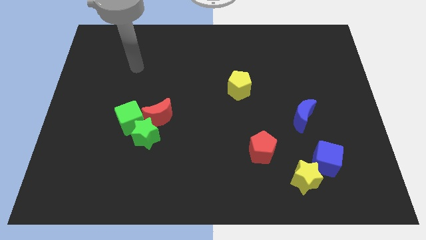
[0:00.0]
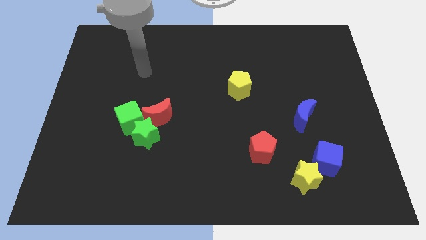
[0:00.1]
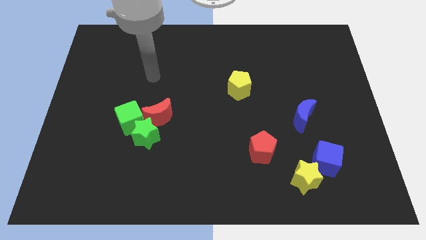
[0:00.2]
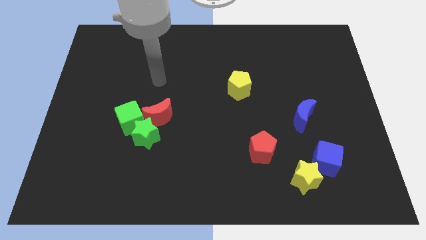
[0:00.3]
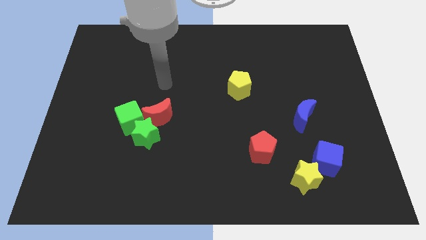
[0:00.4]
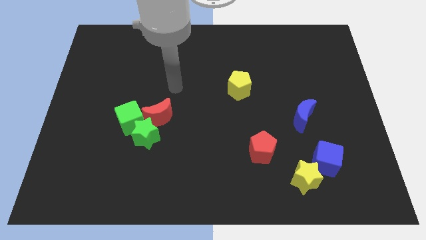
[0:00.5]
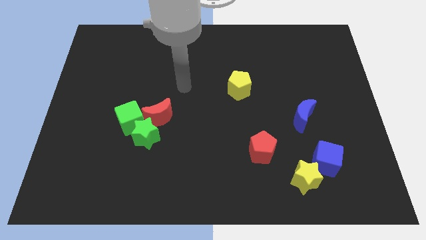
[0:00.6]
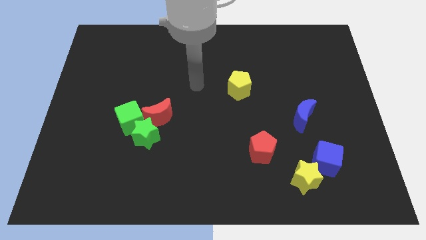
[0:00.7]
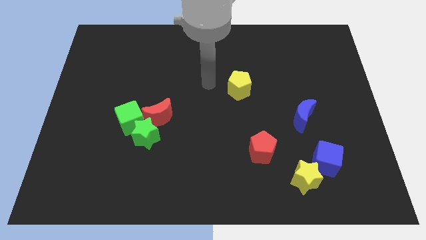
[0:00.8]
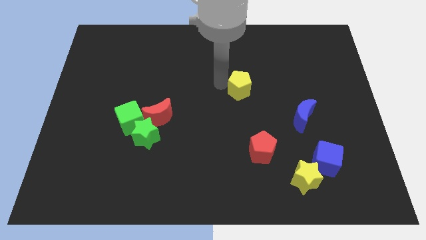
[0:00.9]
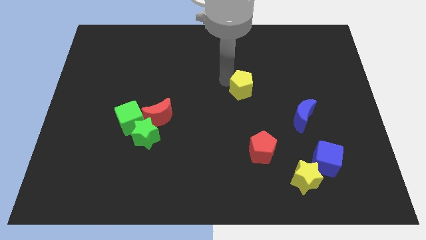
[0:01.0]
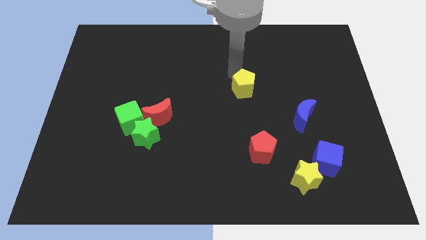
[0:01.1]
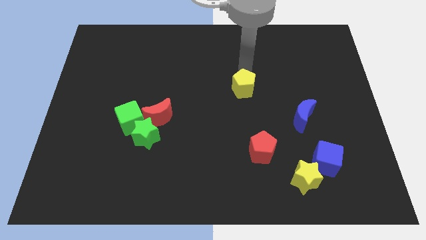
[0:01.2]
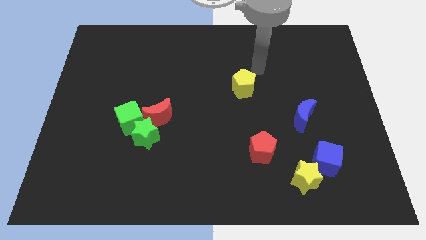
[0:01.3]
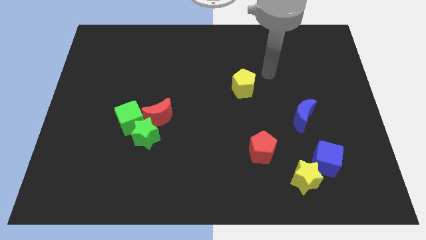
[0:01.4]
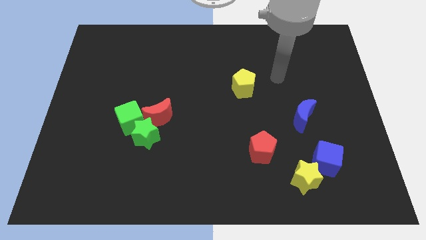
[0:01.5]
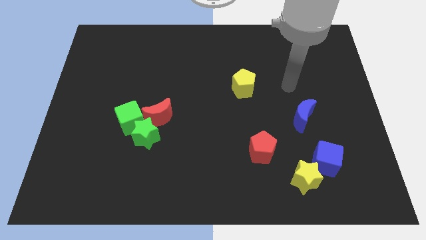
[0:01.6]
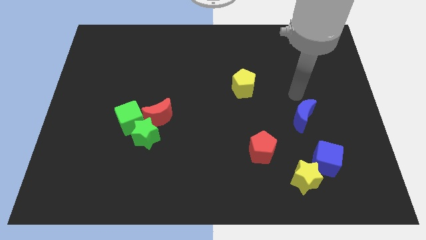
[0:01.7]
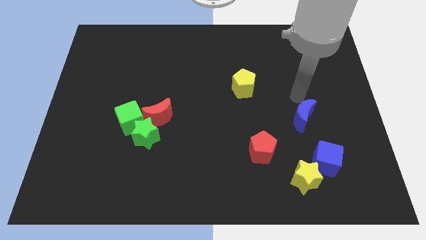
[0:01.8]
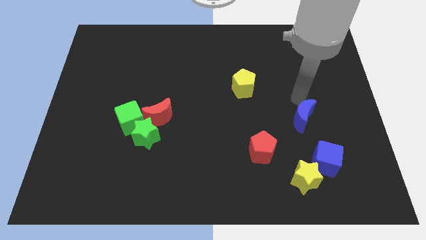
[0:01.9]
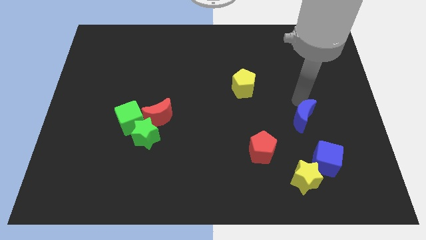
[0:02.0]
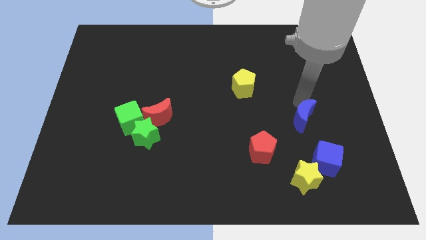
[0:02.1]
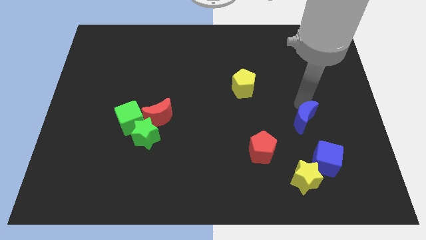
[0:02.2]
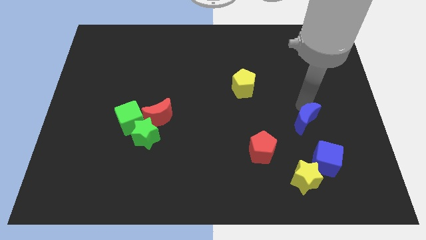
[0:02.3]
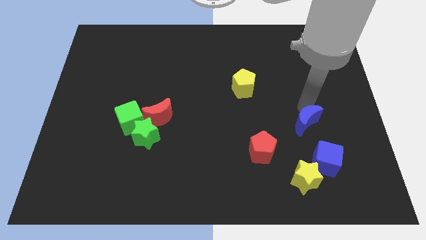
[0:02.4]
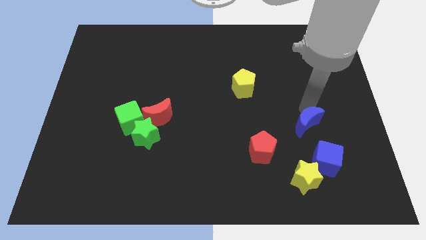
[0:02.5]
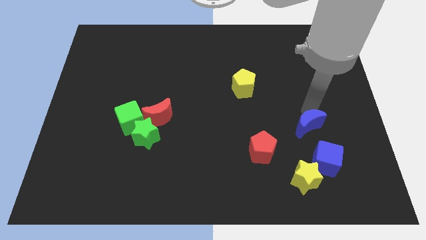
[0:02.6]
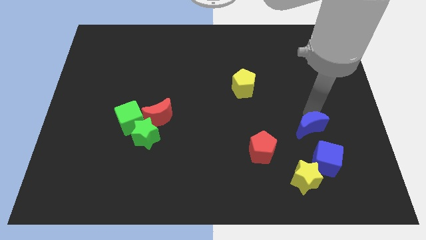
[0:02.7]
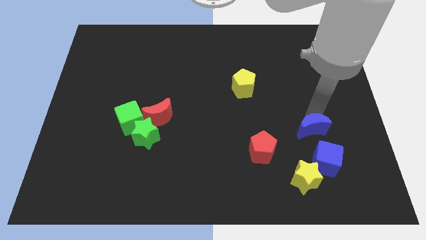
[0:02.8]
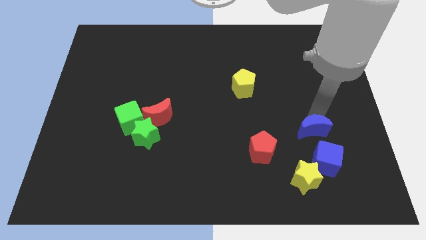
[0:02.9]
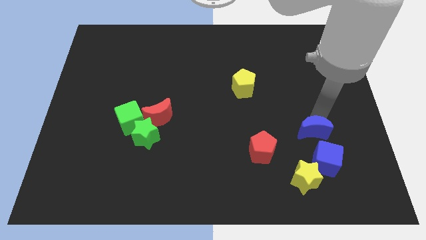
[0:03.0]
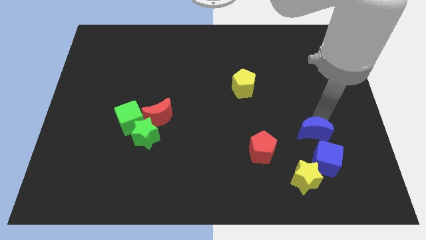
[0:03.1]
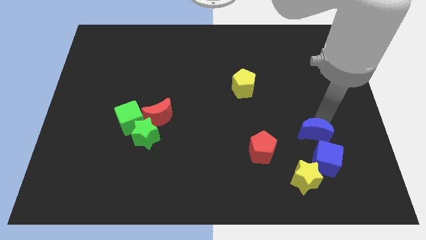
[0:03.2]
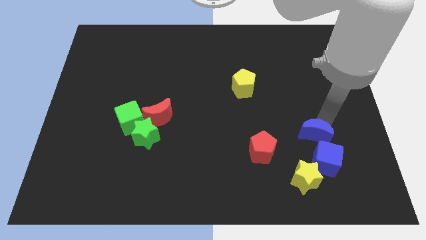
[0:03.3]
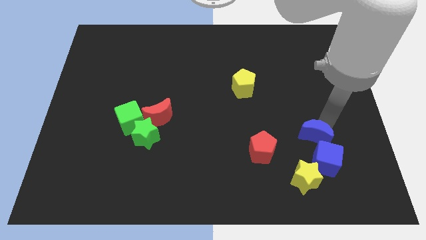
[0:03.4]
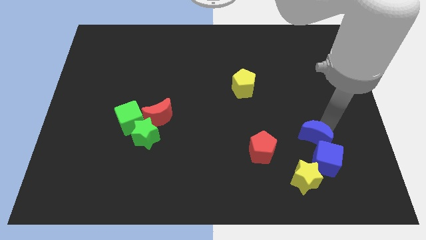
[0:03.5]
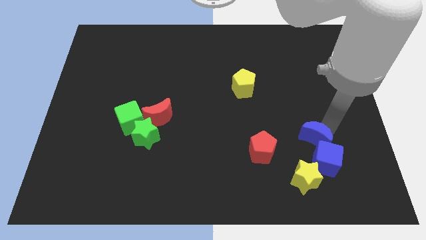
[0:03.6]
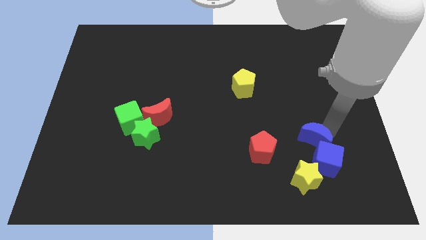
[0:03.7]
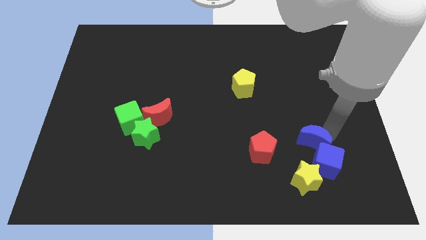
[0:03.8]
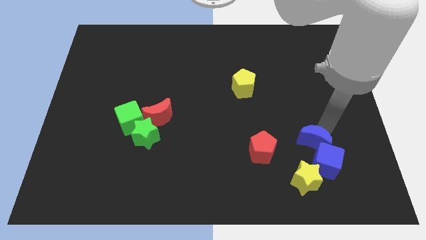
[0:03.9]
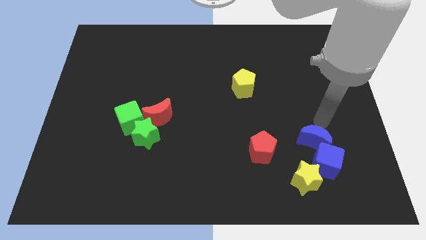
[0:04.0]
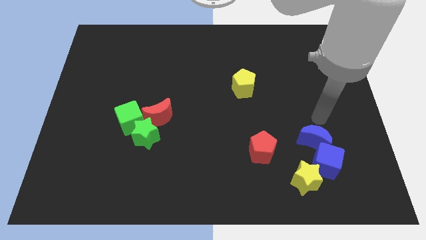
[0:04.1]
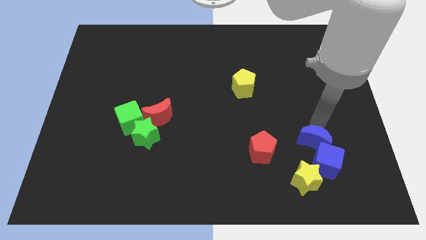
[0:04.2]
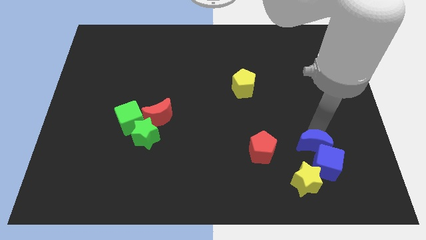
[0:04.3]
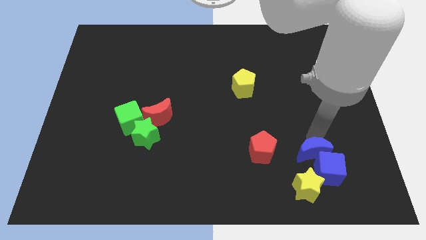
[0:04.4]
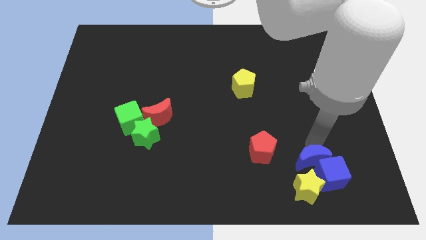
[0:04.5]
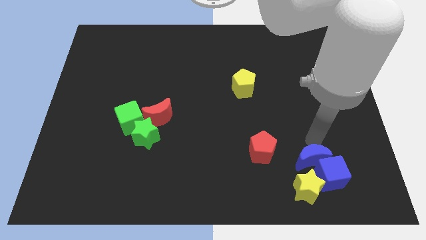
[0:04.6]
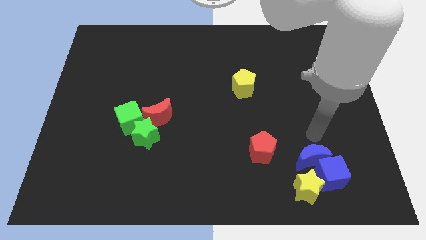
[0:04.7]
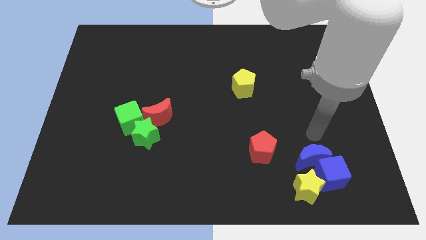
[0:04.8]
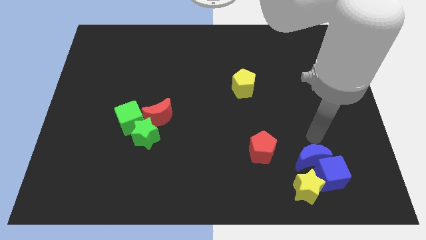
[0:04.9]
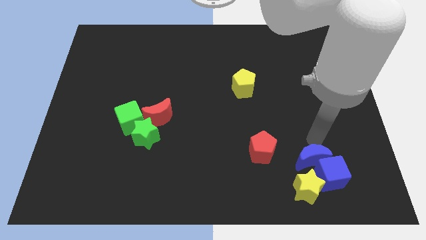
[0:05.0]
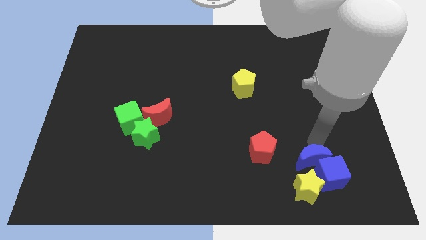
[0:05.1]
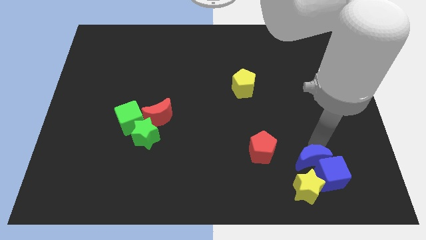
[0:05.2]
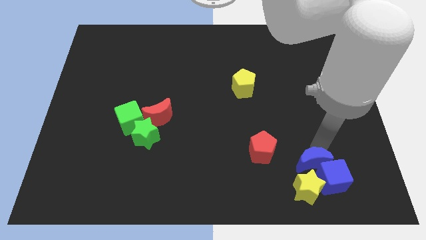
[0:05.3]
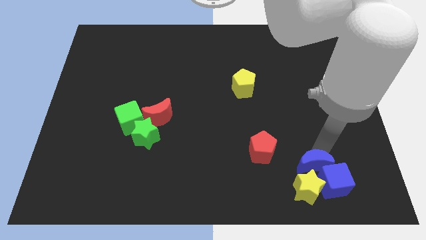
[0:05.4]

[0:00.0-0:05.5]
slide the blue moon towards the yellow star

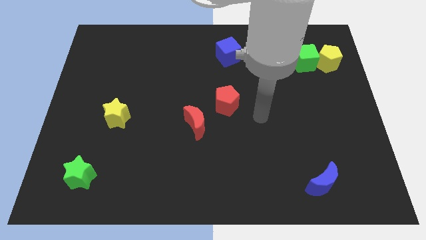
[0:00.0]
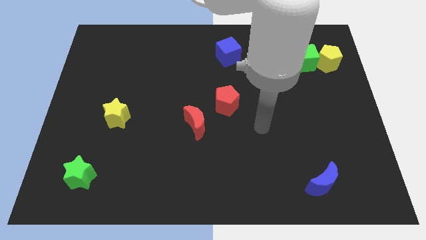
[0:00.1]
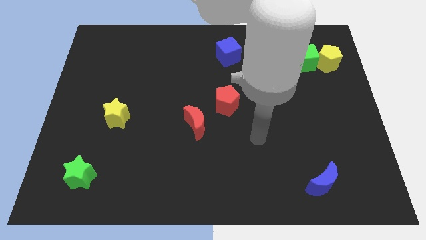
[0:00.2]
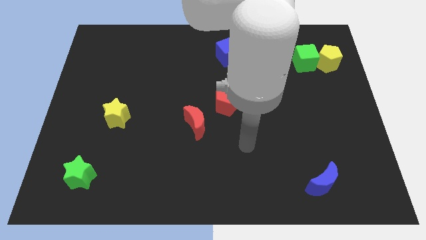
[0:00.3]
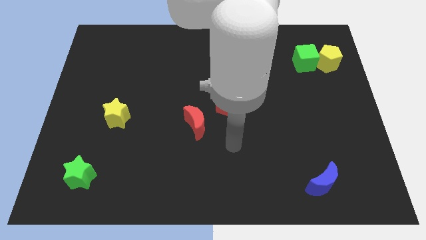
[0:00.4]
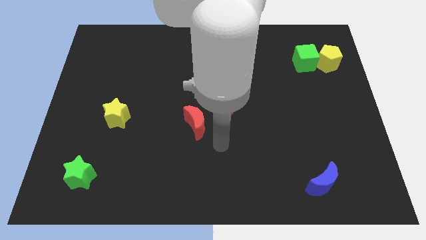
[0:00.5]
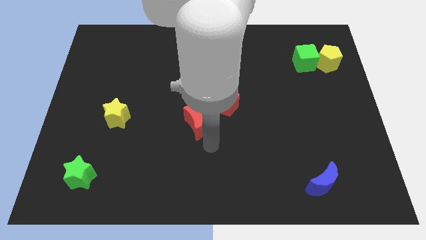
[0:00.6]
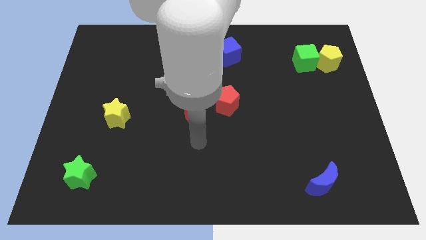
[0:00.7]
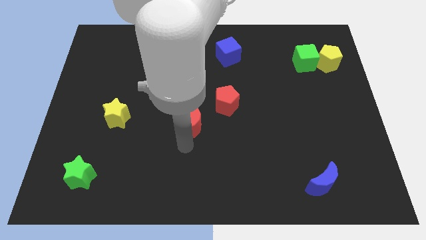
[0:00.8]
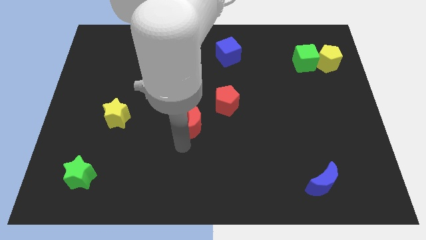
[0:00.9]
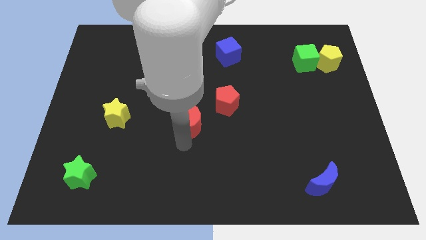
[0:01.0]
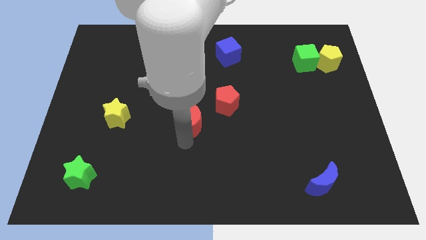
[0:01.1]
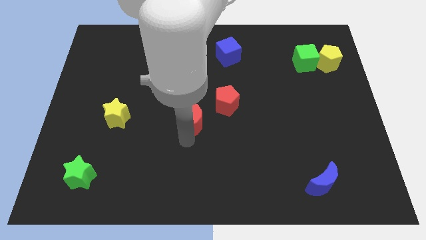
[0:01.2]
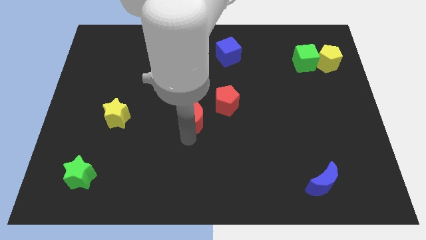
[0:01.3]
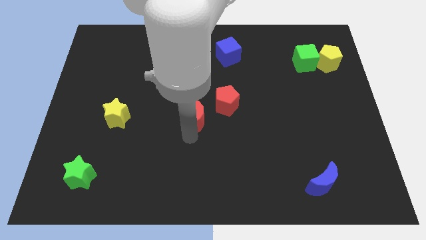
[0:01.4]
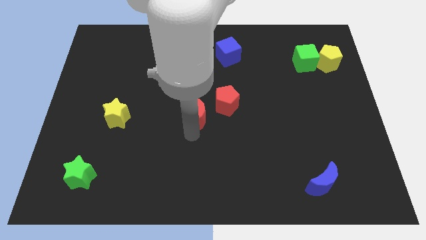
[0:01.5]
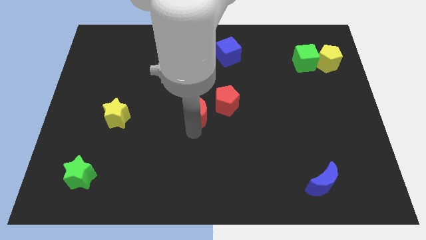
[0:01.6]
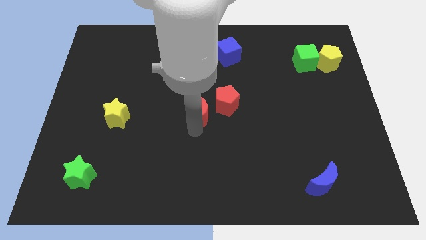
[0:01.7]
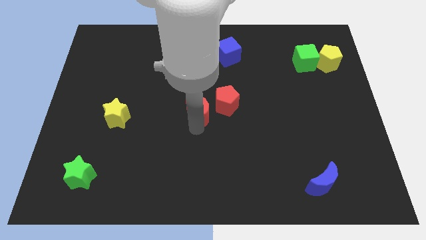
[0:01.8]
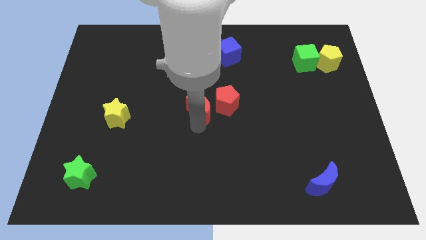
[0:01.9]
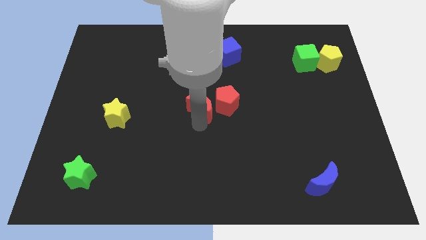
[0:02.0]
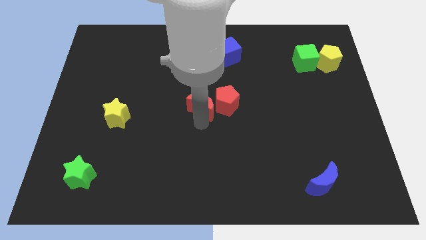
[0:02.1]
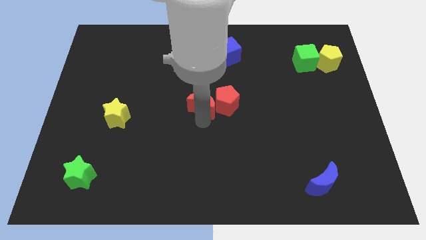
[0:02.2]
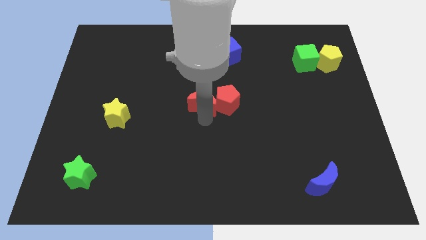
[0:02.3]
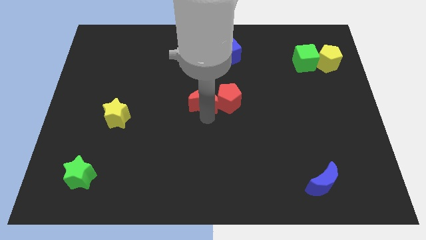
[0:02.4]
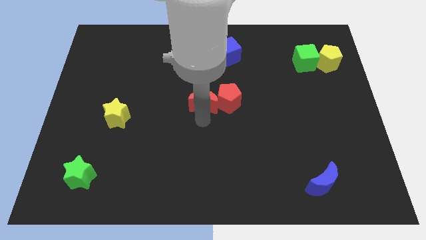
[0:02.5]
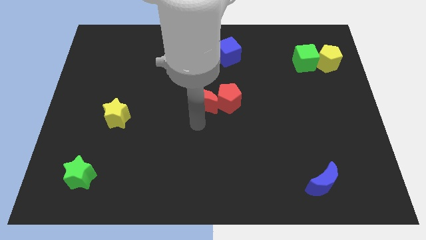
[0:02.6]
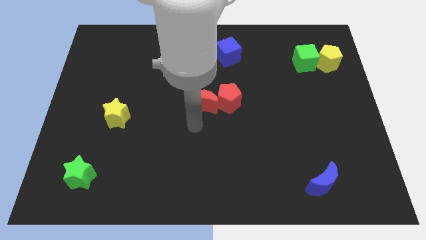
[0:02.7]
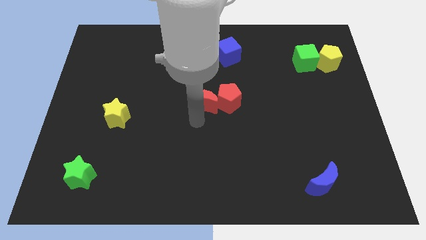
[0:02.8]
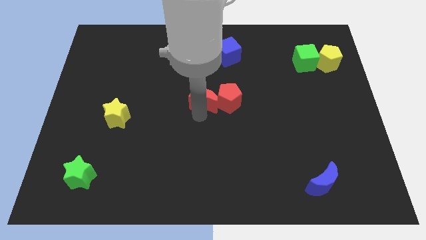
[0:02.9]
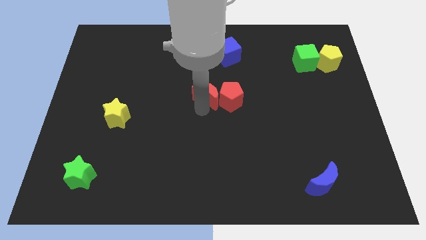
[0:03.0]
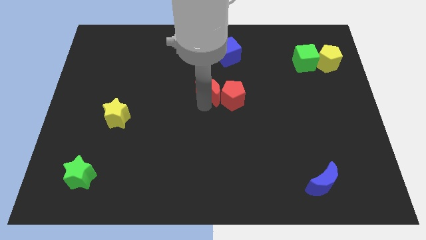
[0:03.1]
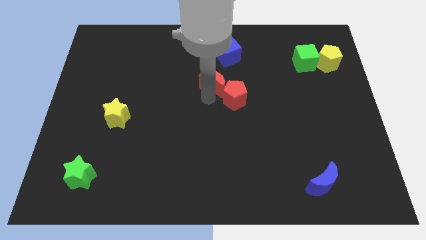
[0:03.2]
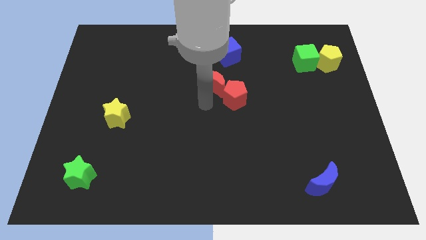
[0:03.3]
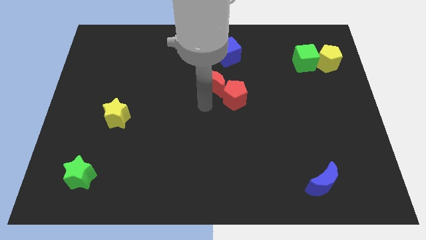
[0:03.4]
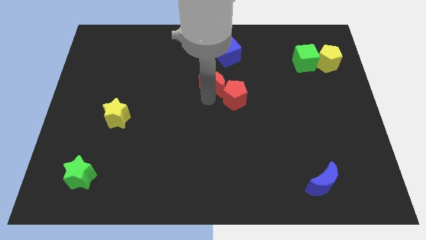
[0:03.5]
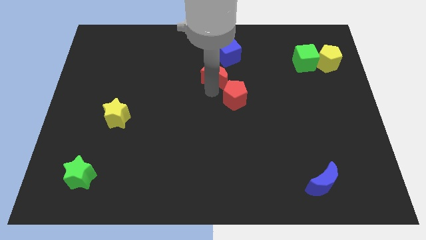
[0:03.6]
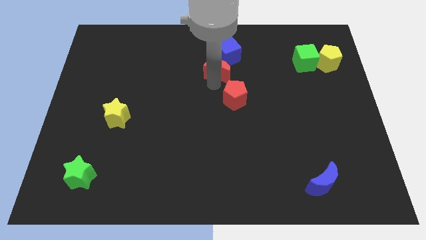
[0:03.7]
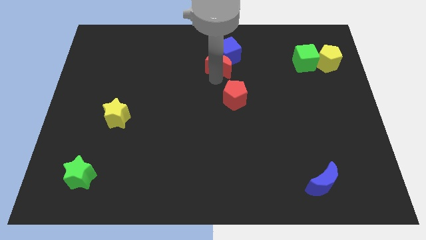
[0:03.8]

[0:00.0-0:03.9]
push the red moon to the blue cube
